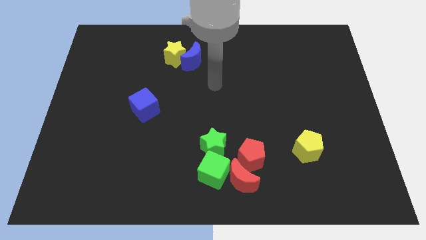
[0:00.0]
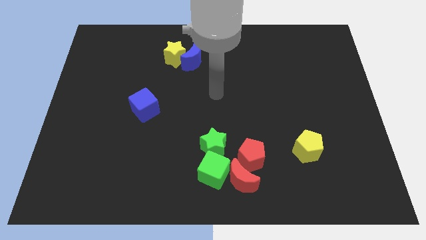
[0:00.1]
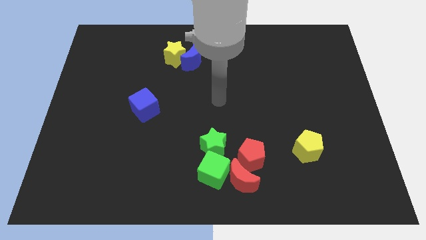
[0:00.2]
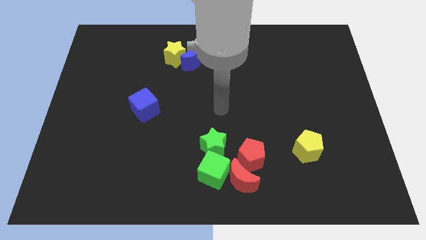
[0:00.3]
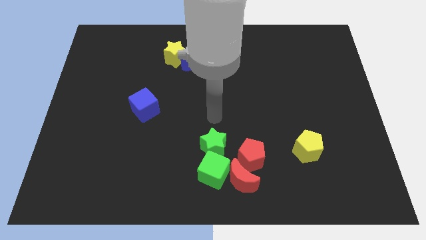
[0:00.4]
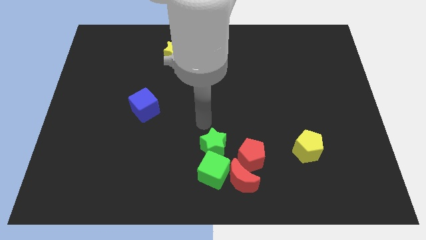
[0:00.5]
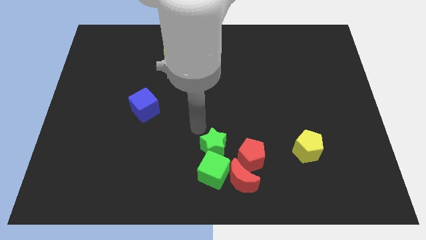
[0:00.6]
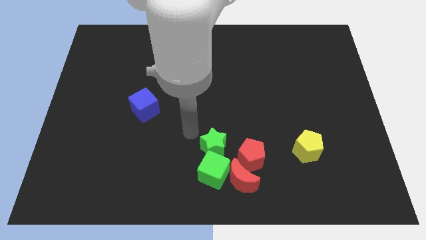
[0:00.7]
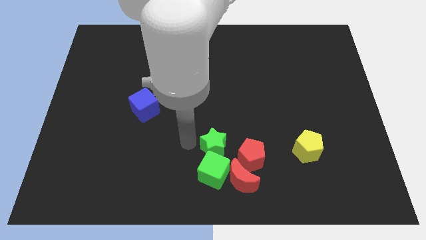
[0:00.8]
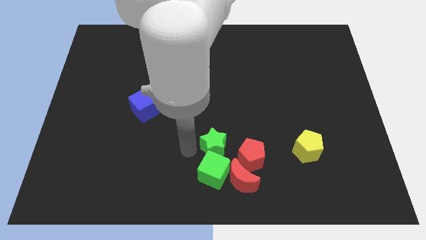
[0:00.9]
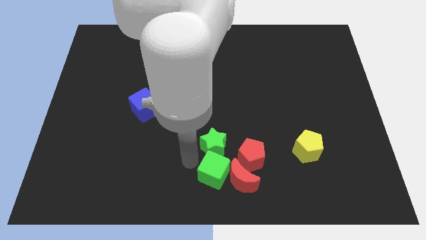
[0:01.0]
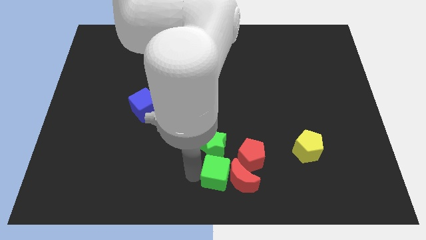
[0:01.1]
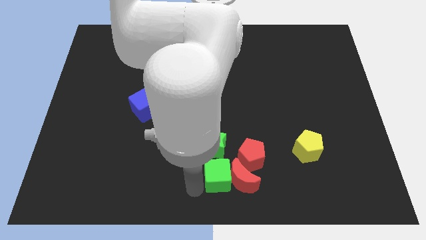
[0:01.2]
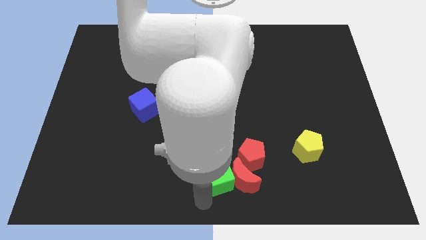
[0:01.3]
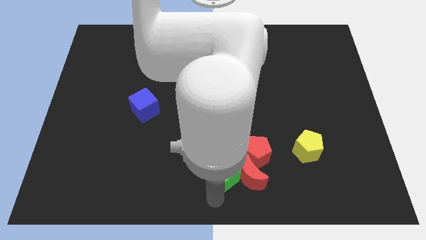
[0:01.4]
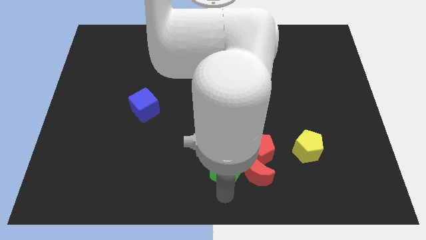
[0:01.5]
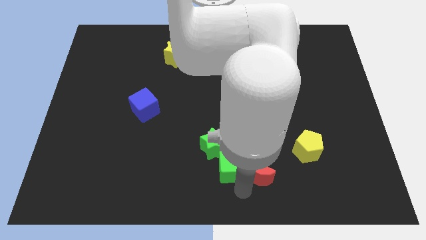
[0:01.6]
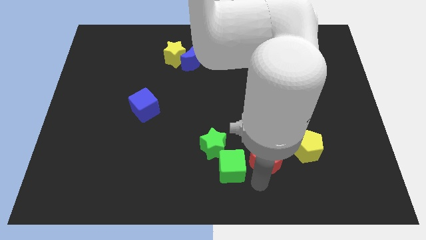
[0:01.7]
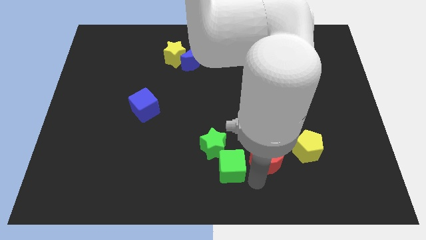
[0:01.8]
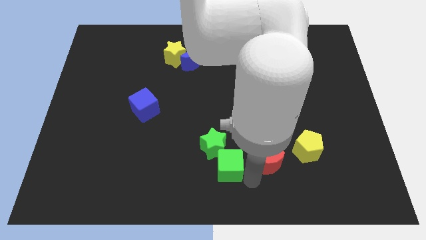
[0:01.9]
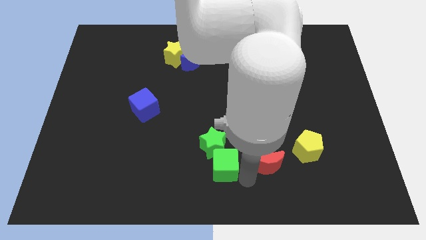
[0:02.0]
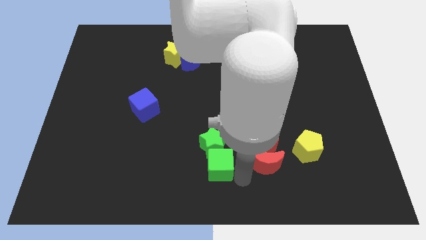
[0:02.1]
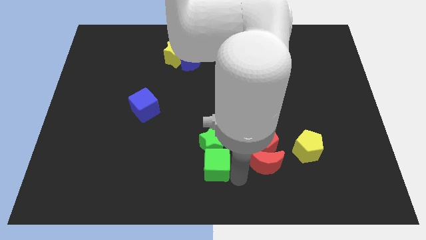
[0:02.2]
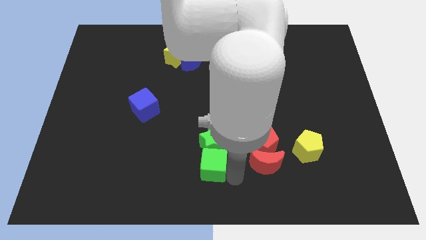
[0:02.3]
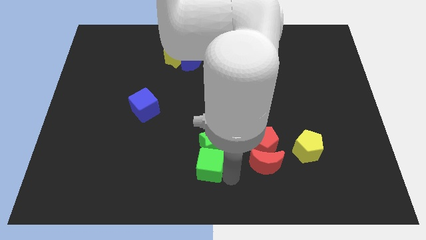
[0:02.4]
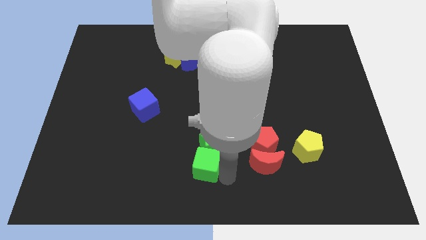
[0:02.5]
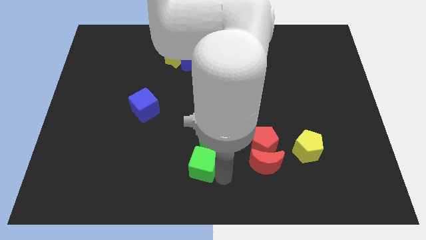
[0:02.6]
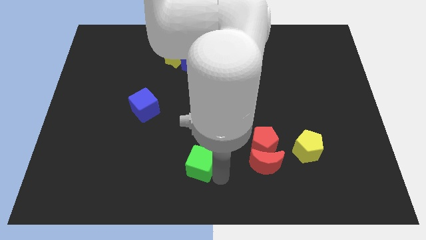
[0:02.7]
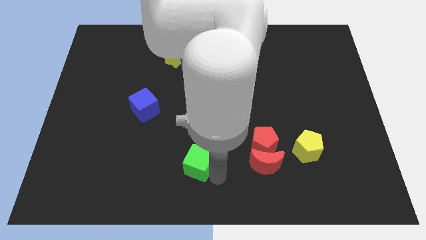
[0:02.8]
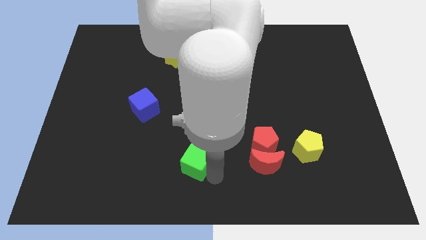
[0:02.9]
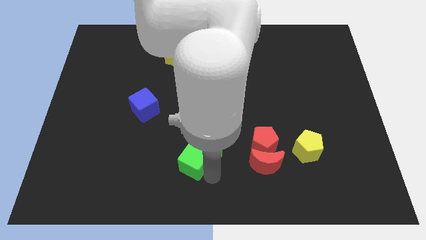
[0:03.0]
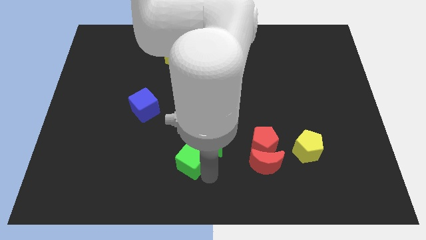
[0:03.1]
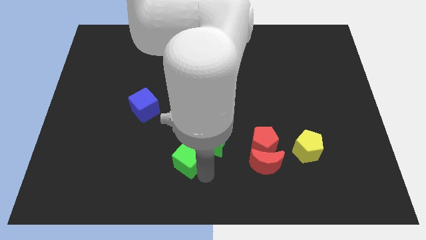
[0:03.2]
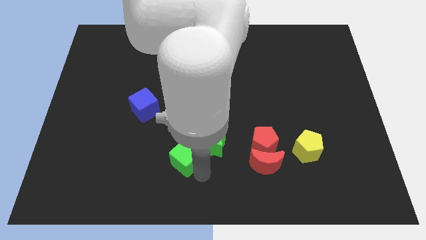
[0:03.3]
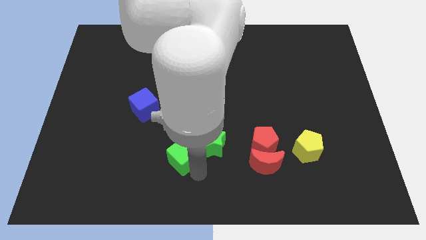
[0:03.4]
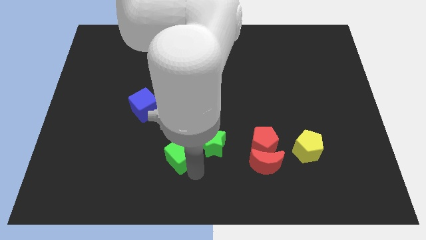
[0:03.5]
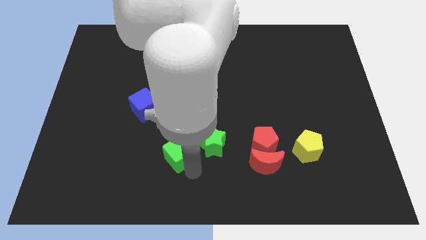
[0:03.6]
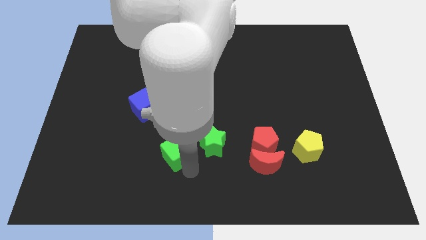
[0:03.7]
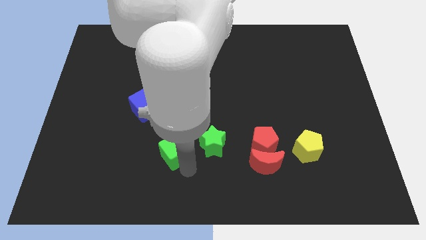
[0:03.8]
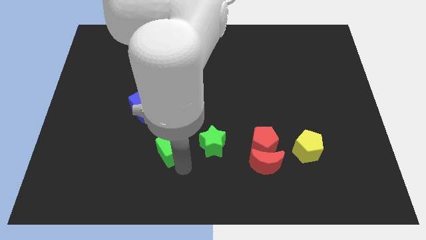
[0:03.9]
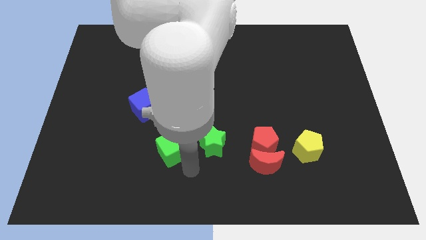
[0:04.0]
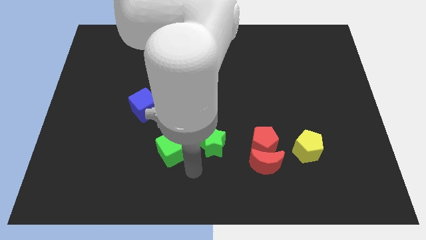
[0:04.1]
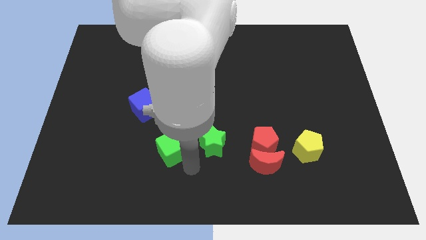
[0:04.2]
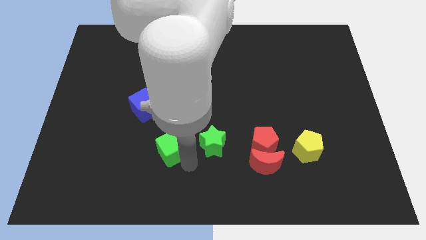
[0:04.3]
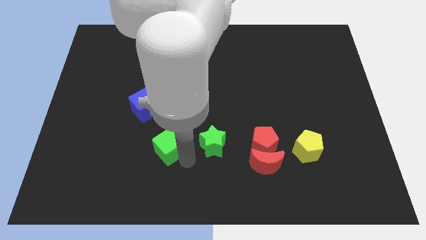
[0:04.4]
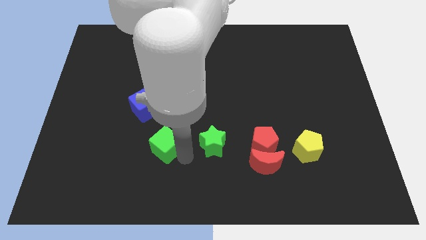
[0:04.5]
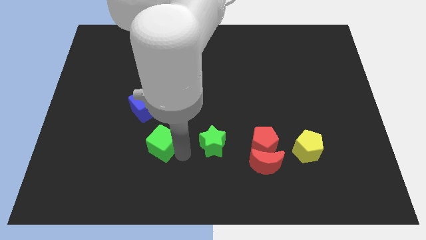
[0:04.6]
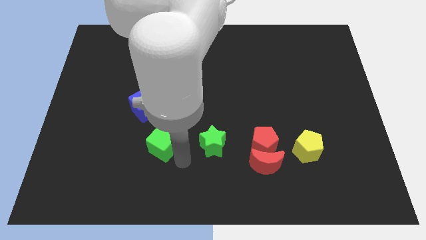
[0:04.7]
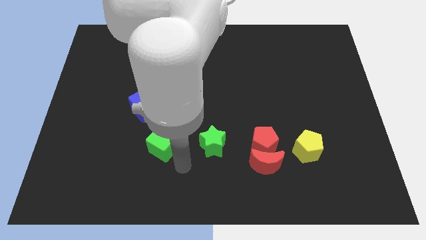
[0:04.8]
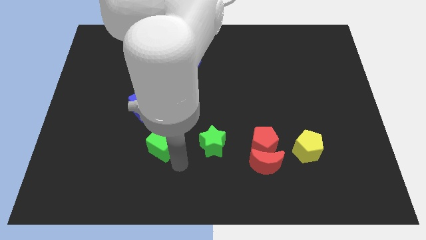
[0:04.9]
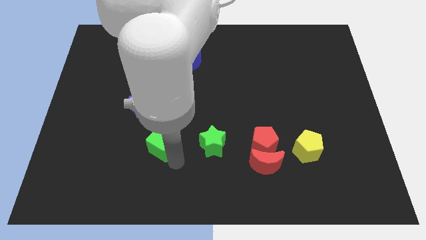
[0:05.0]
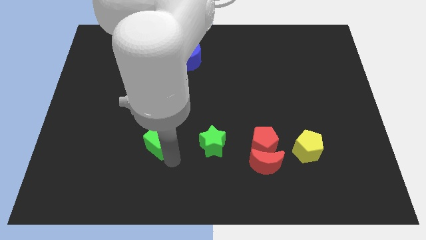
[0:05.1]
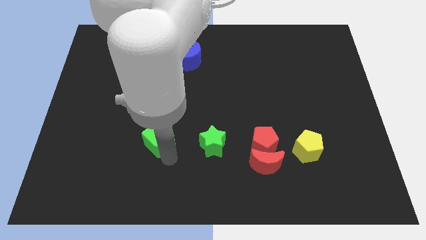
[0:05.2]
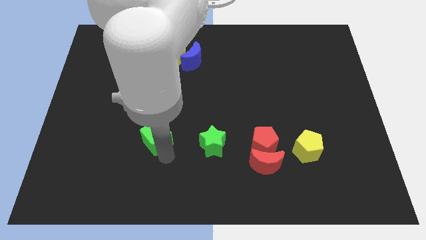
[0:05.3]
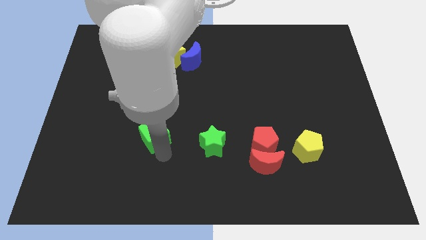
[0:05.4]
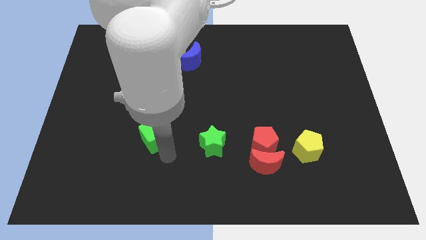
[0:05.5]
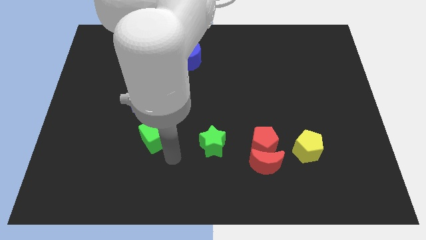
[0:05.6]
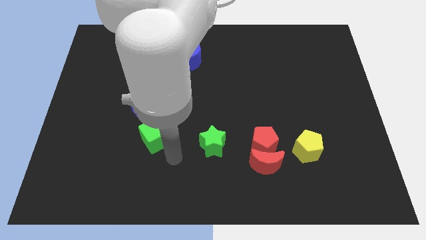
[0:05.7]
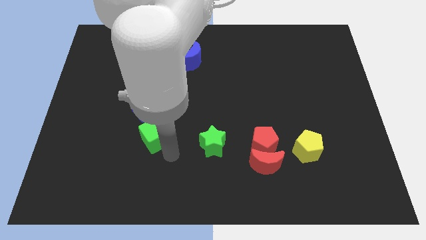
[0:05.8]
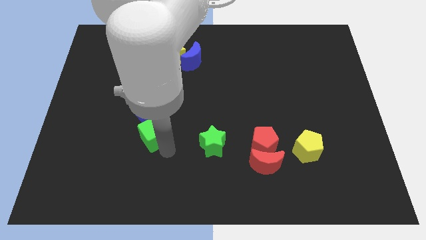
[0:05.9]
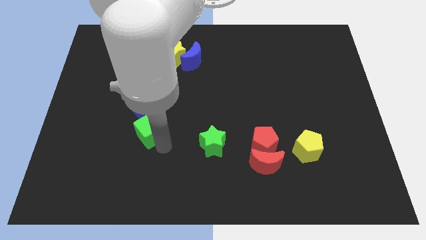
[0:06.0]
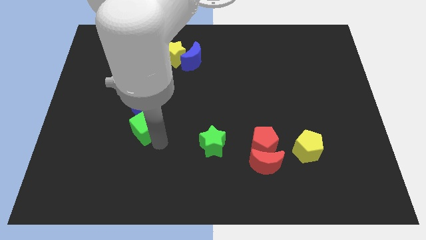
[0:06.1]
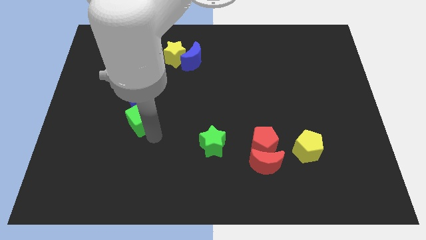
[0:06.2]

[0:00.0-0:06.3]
push the green cube diagonally upwards and left

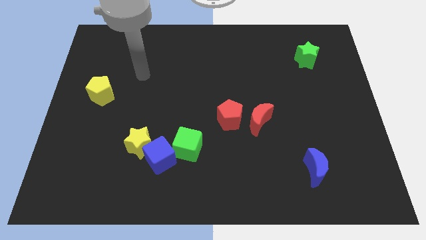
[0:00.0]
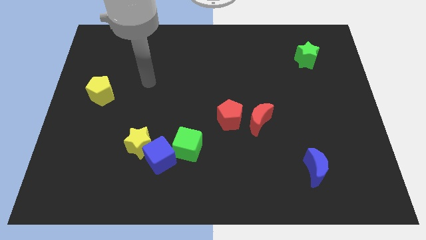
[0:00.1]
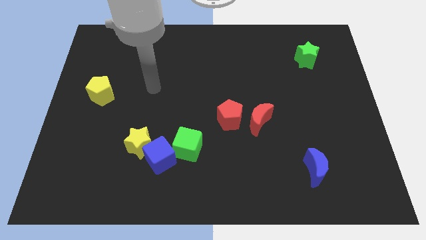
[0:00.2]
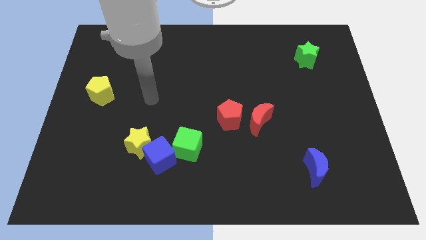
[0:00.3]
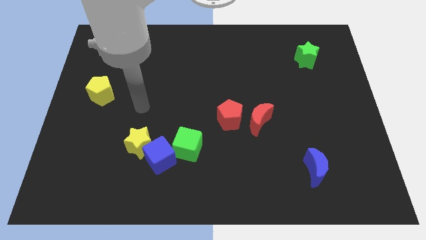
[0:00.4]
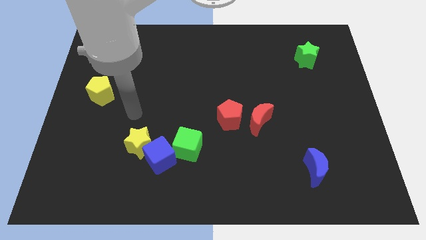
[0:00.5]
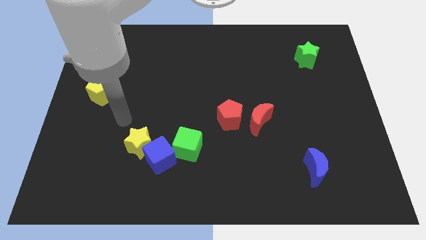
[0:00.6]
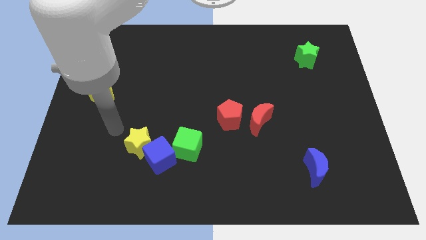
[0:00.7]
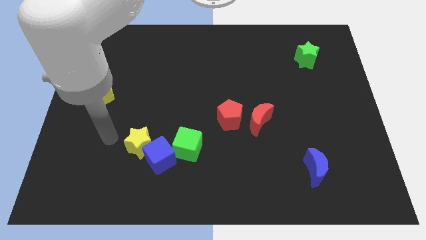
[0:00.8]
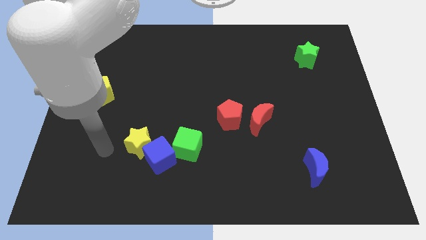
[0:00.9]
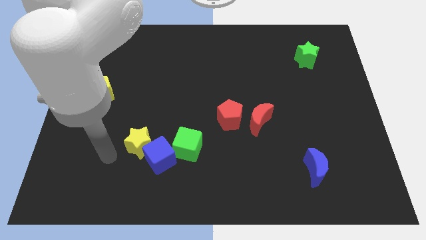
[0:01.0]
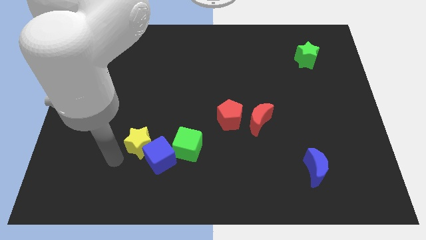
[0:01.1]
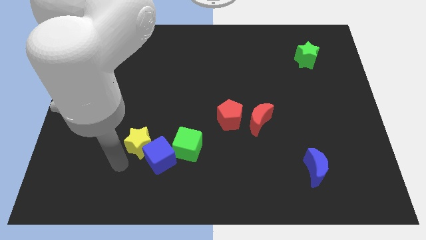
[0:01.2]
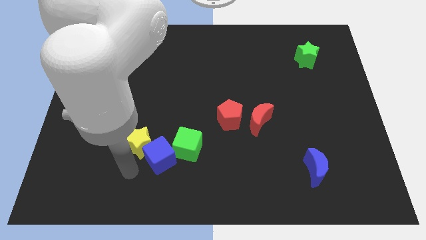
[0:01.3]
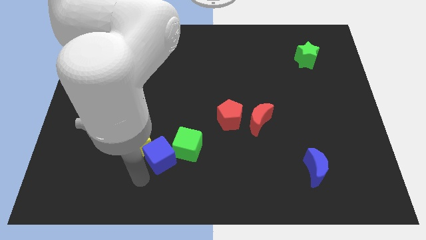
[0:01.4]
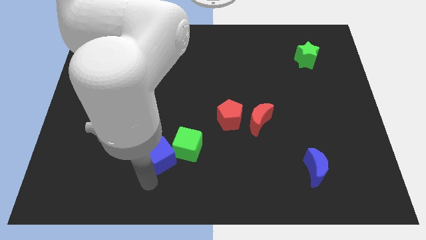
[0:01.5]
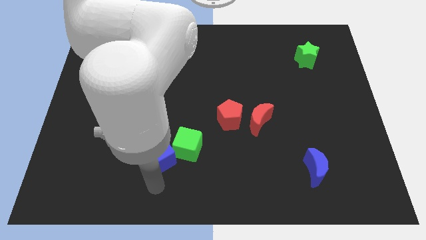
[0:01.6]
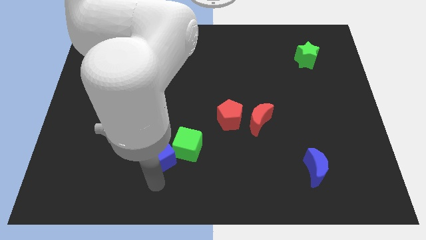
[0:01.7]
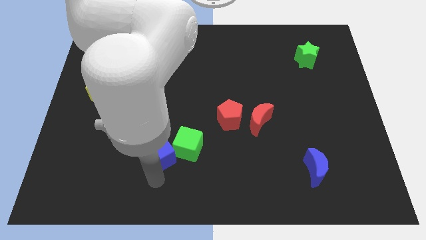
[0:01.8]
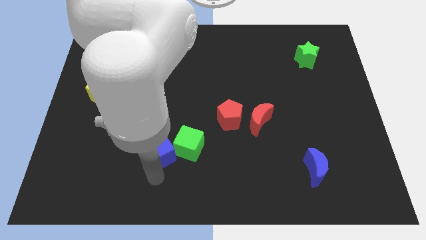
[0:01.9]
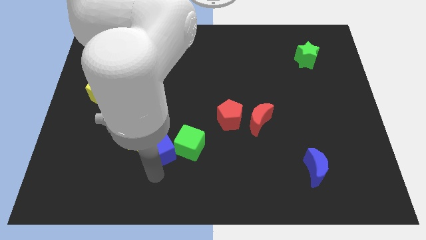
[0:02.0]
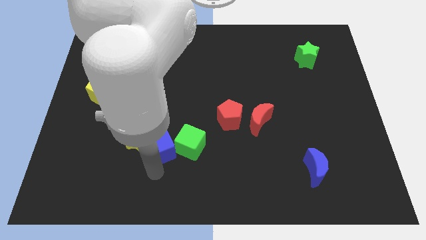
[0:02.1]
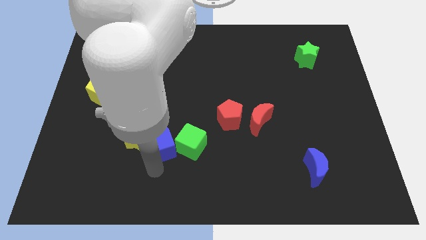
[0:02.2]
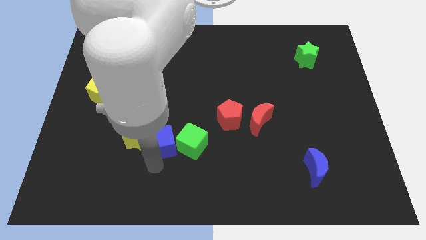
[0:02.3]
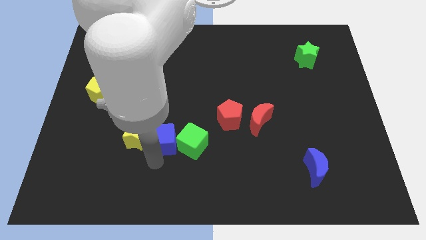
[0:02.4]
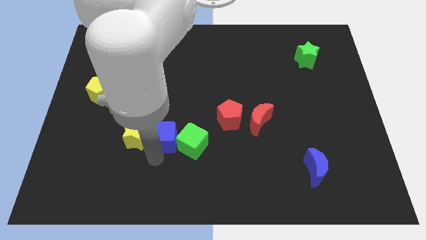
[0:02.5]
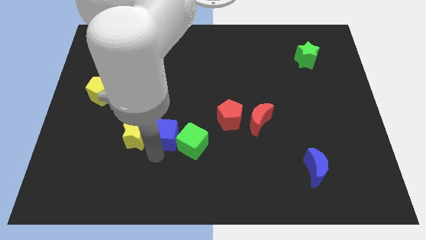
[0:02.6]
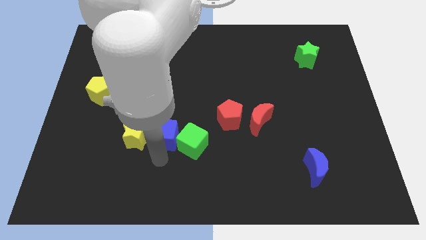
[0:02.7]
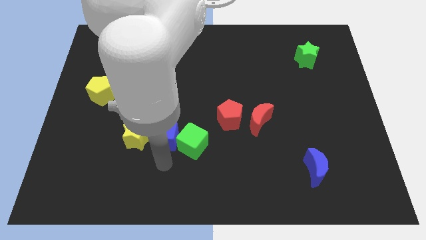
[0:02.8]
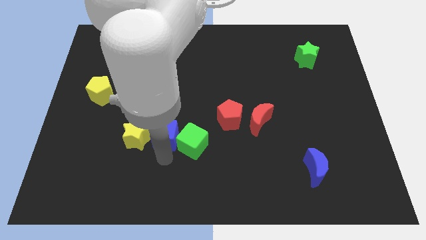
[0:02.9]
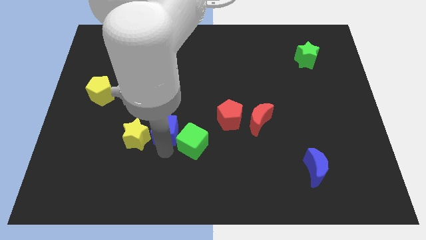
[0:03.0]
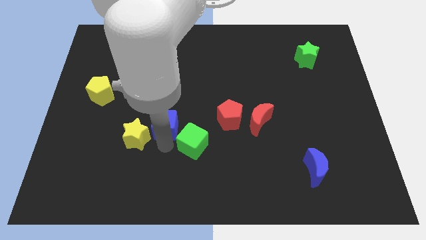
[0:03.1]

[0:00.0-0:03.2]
slightly slide the blue cube up
